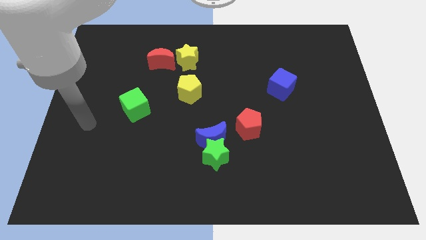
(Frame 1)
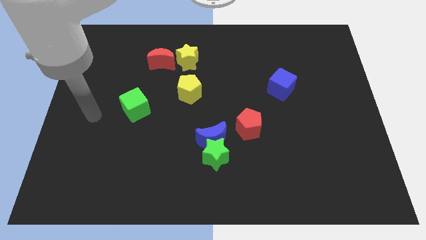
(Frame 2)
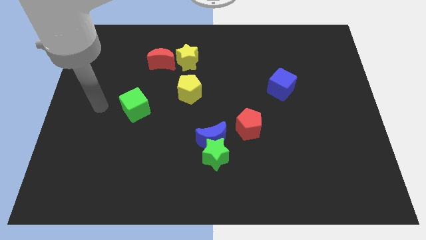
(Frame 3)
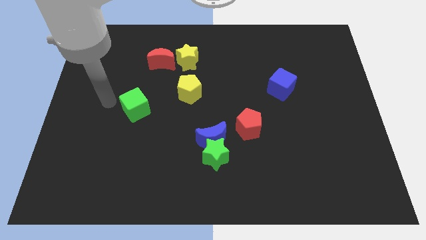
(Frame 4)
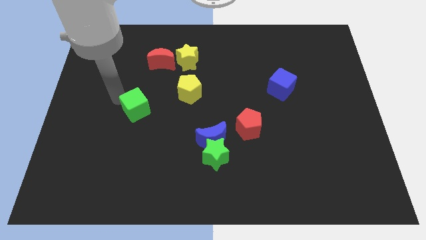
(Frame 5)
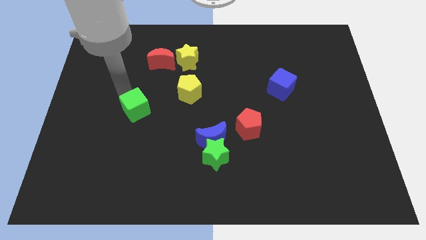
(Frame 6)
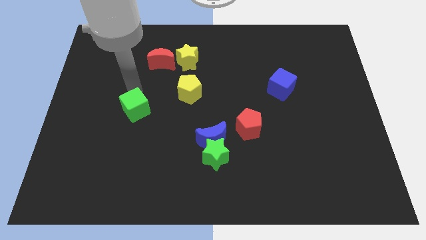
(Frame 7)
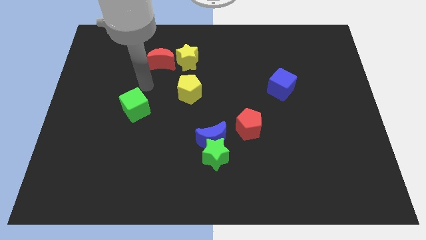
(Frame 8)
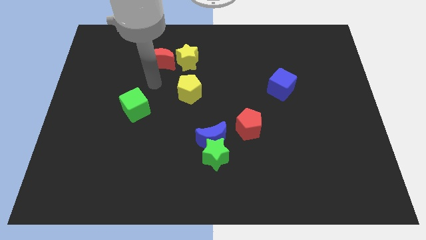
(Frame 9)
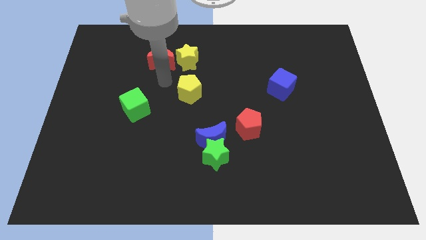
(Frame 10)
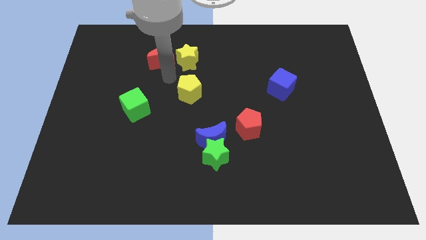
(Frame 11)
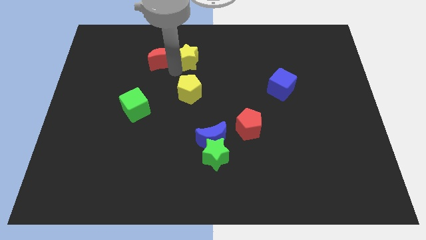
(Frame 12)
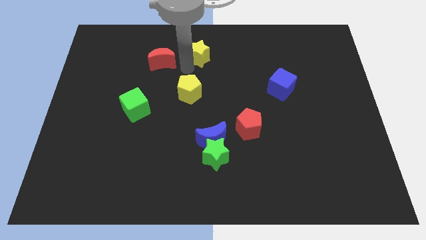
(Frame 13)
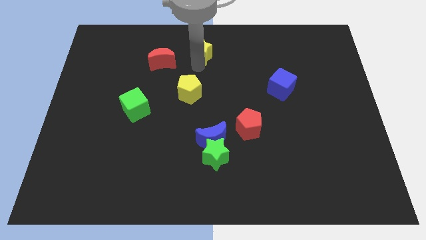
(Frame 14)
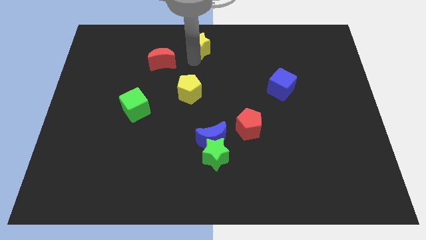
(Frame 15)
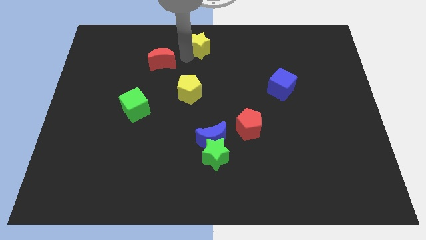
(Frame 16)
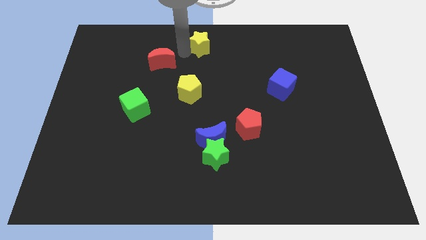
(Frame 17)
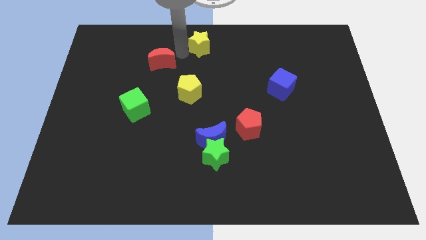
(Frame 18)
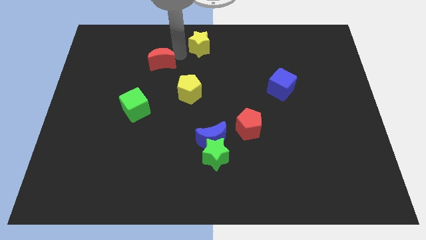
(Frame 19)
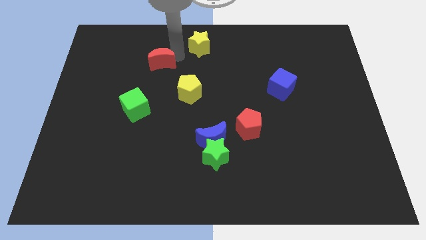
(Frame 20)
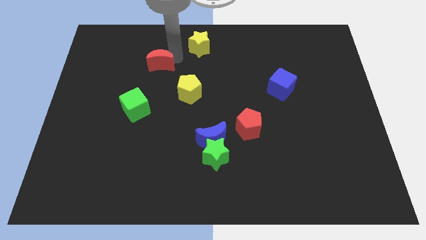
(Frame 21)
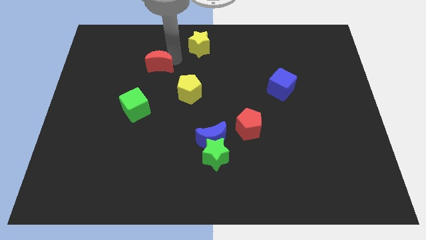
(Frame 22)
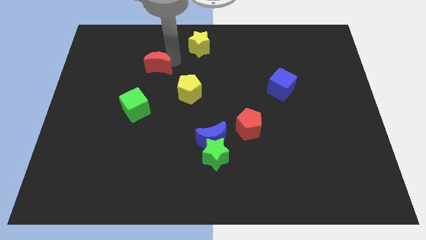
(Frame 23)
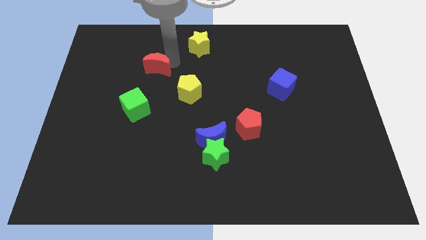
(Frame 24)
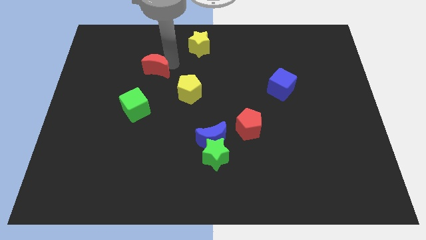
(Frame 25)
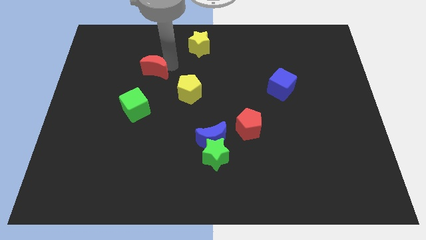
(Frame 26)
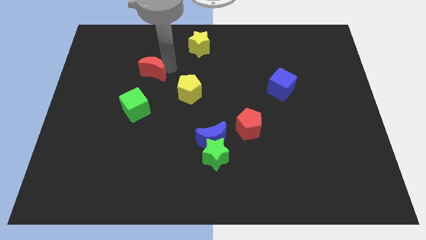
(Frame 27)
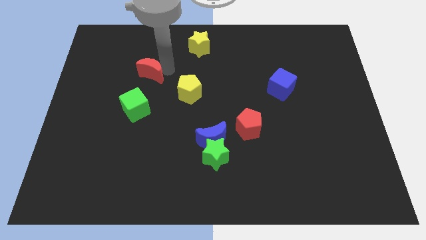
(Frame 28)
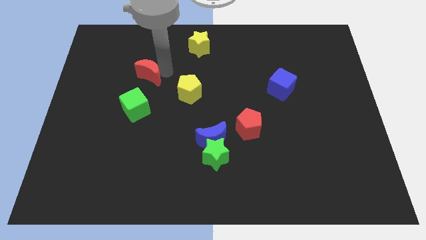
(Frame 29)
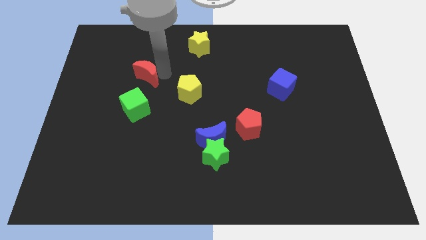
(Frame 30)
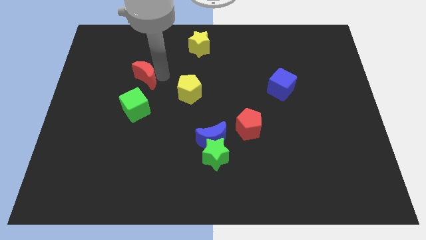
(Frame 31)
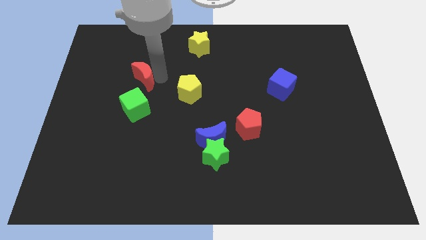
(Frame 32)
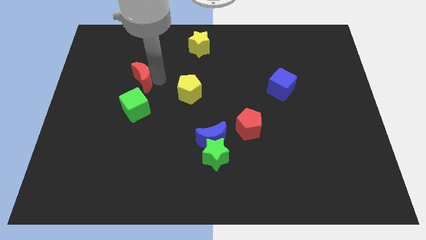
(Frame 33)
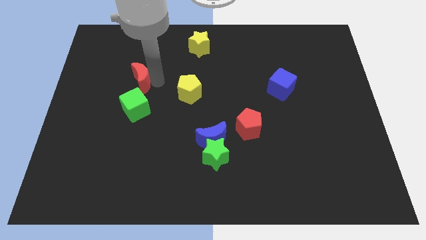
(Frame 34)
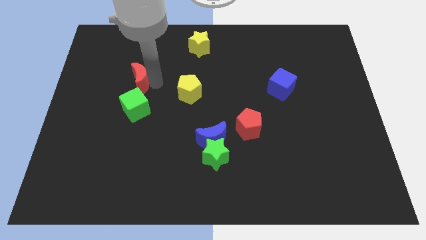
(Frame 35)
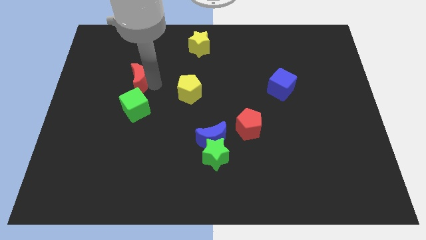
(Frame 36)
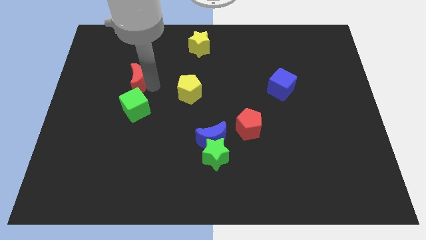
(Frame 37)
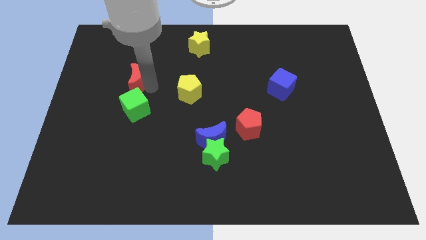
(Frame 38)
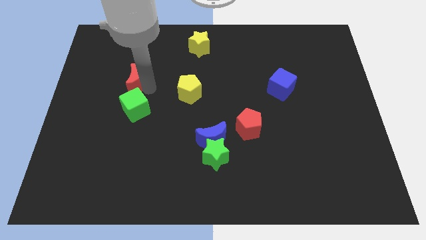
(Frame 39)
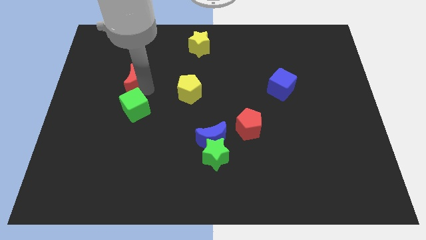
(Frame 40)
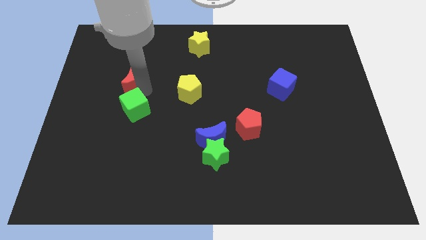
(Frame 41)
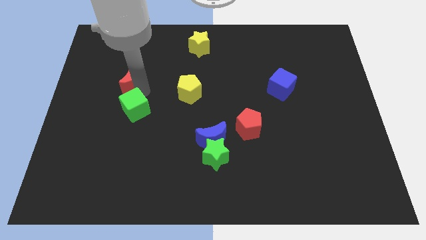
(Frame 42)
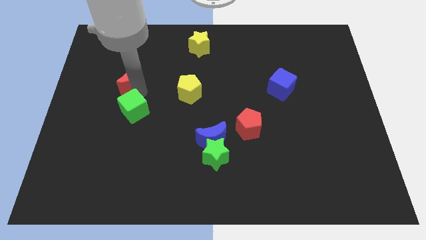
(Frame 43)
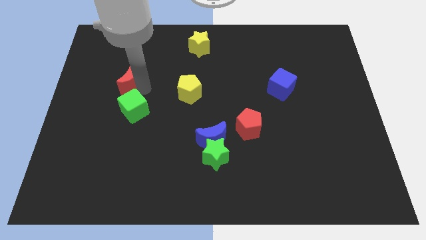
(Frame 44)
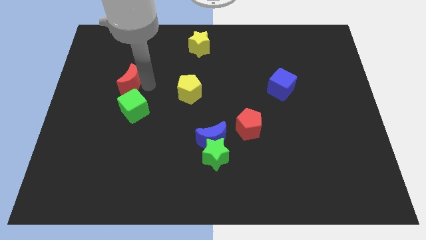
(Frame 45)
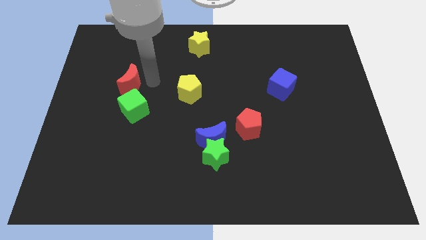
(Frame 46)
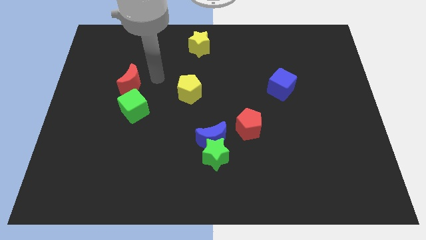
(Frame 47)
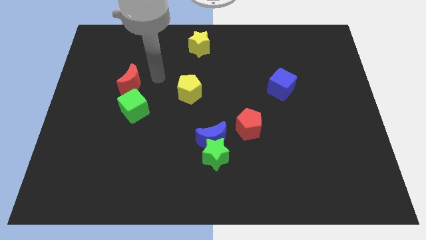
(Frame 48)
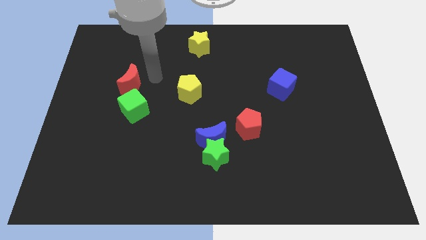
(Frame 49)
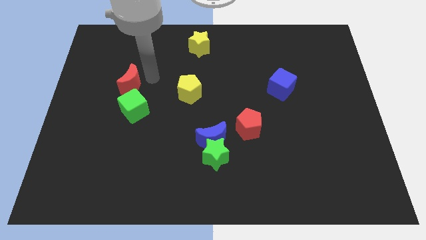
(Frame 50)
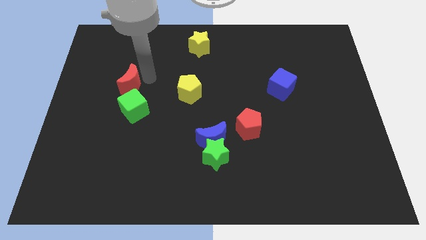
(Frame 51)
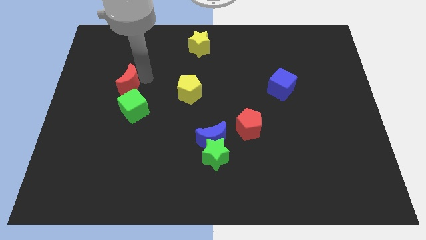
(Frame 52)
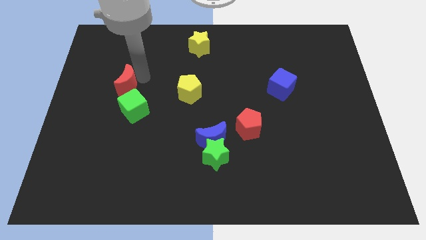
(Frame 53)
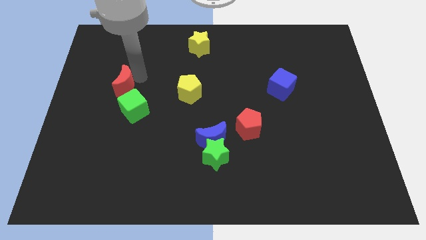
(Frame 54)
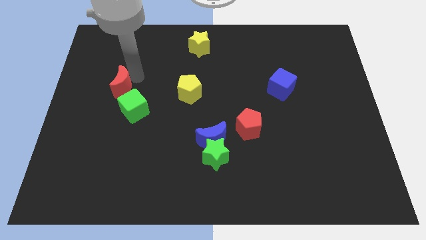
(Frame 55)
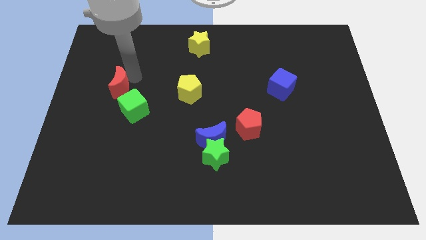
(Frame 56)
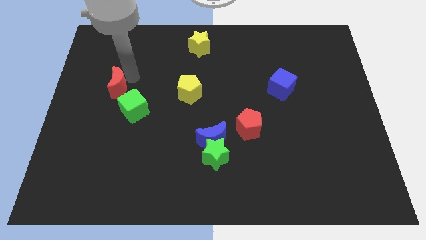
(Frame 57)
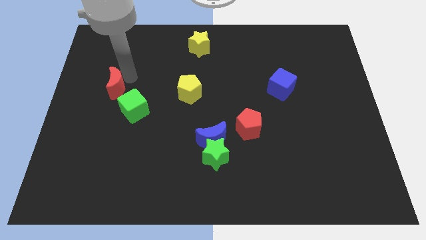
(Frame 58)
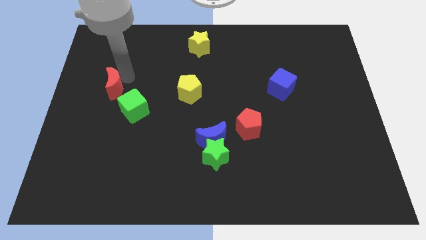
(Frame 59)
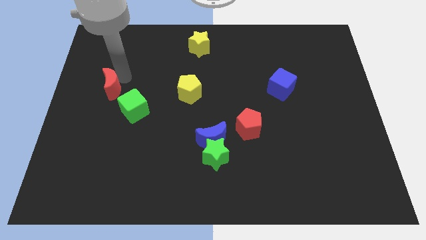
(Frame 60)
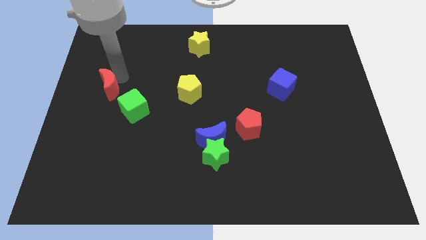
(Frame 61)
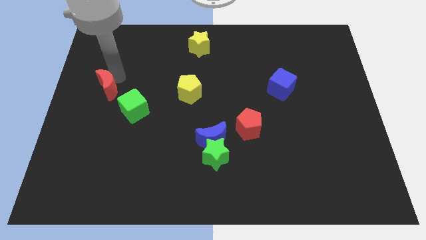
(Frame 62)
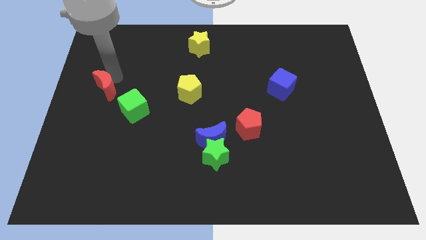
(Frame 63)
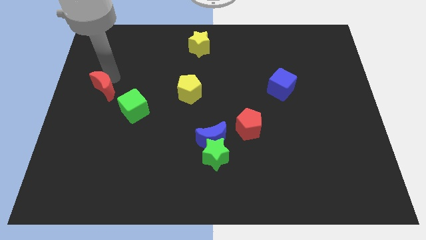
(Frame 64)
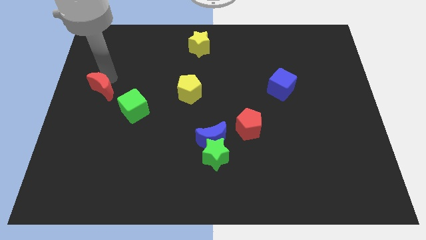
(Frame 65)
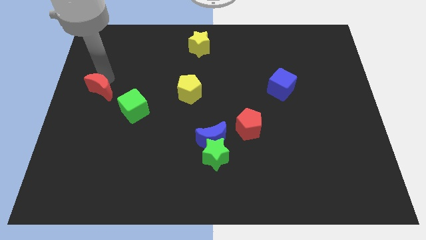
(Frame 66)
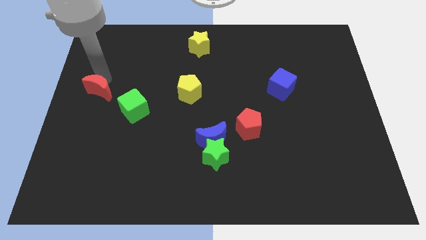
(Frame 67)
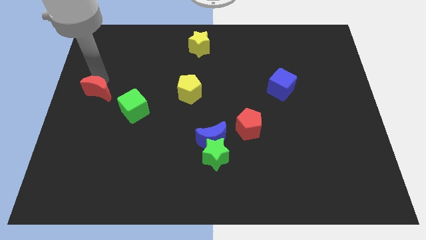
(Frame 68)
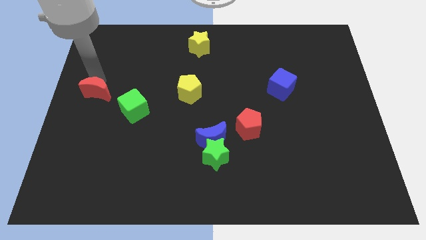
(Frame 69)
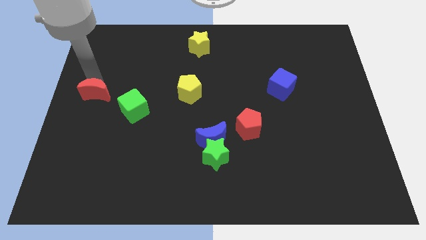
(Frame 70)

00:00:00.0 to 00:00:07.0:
slide the red moon to the left of the green cube

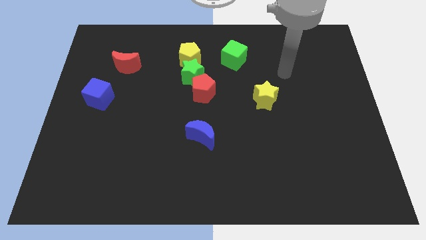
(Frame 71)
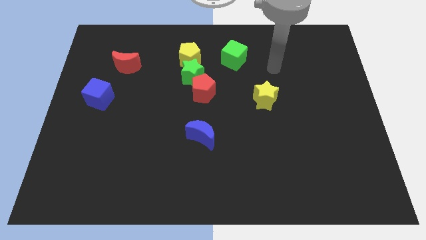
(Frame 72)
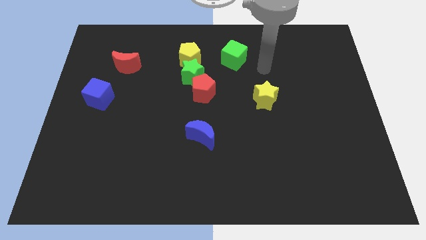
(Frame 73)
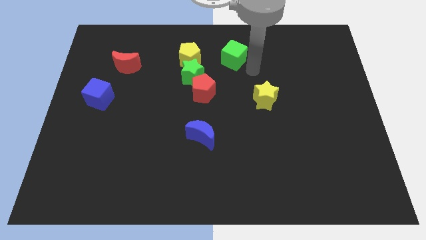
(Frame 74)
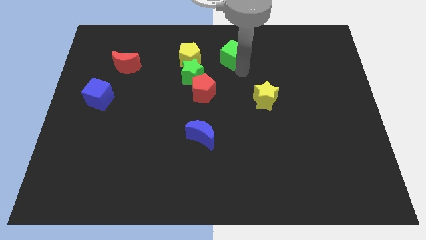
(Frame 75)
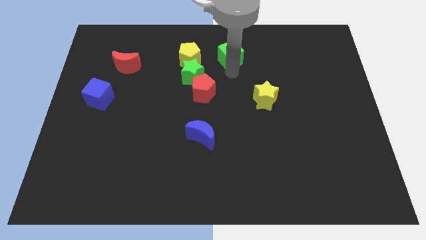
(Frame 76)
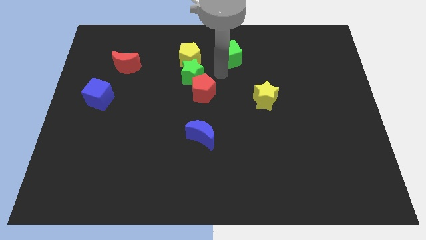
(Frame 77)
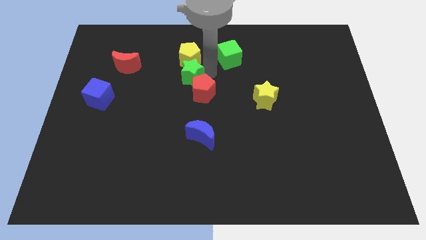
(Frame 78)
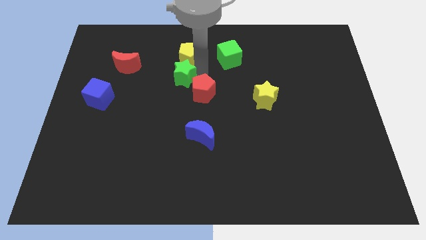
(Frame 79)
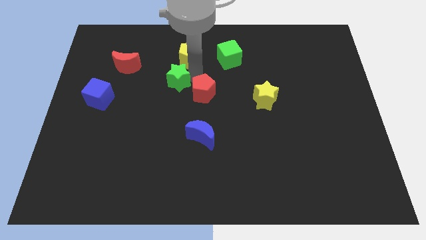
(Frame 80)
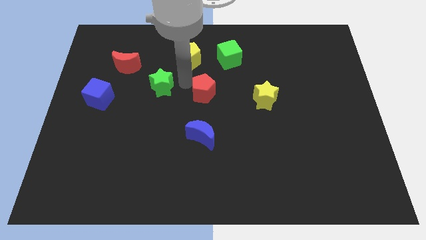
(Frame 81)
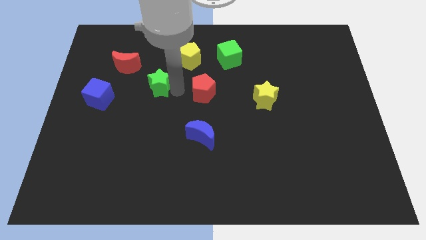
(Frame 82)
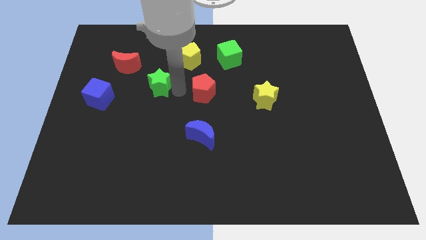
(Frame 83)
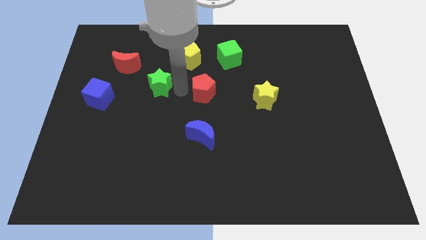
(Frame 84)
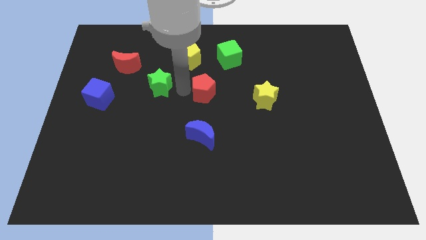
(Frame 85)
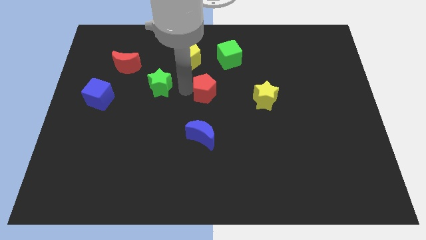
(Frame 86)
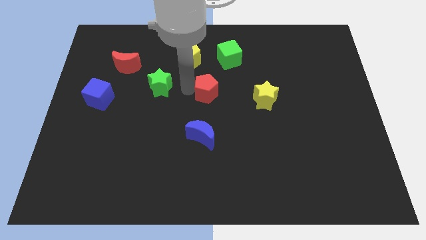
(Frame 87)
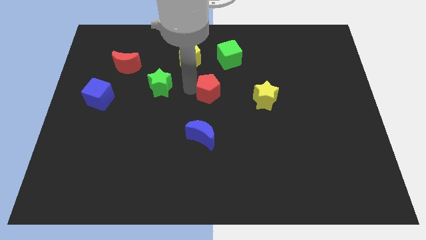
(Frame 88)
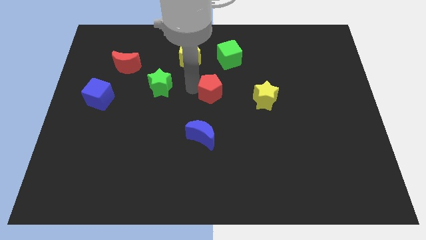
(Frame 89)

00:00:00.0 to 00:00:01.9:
slide the red pentagon to the bottom of the green cube
